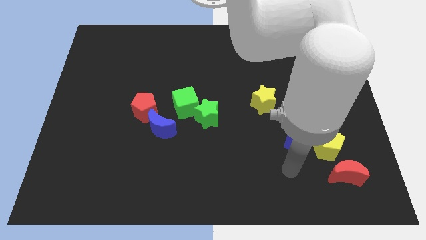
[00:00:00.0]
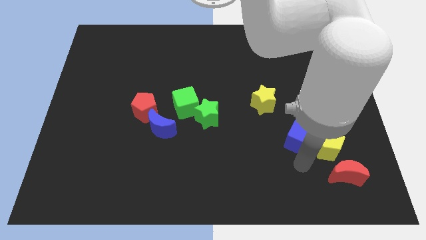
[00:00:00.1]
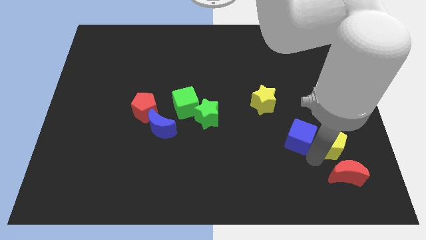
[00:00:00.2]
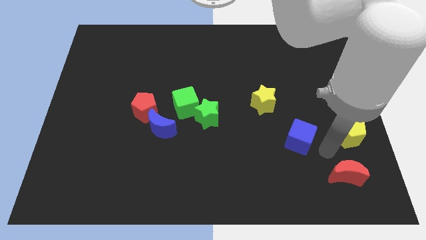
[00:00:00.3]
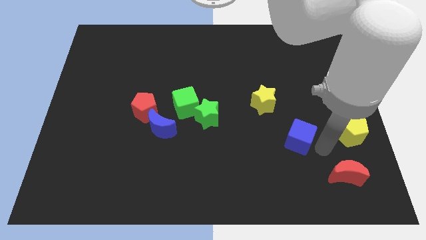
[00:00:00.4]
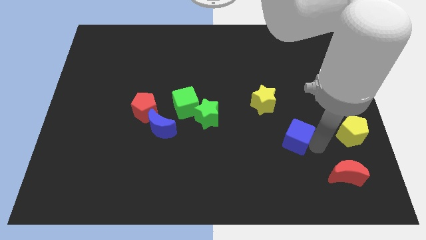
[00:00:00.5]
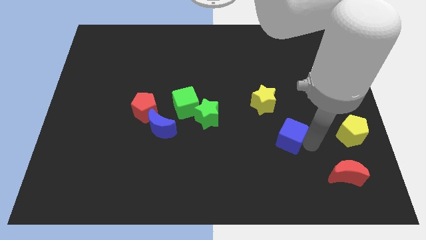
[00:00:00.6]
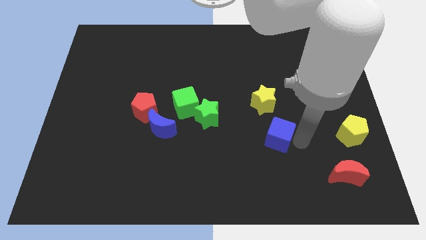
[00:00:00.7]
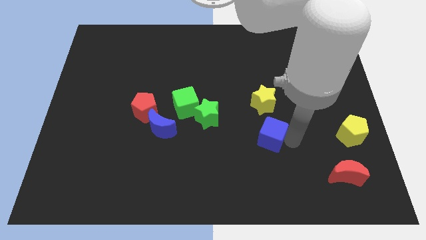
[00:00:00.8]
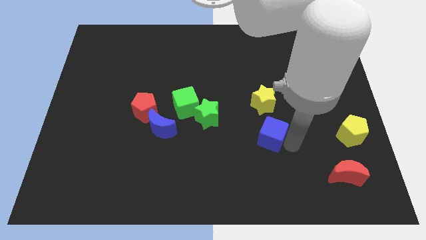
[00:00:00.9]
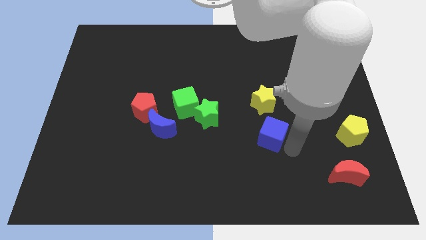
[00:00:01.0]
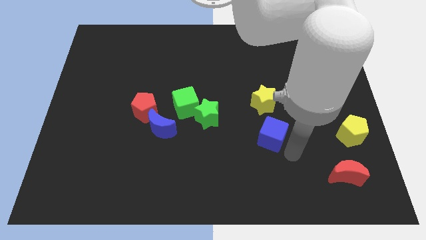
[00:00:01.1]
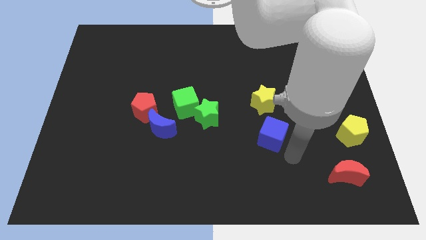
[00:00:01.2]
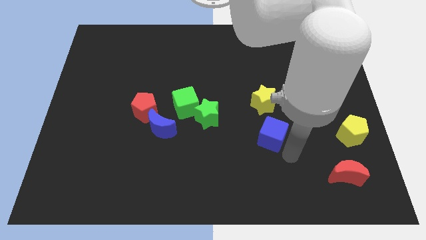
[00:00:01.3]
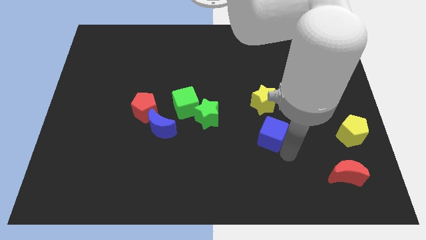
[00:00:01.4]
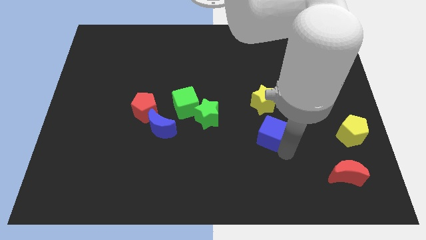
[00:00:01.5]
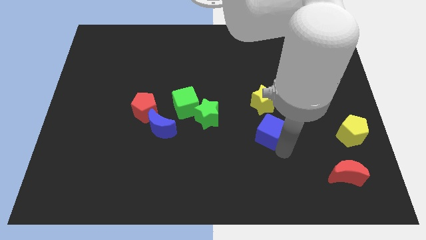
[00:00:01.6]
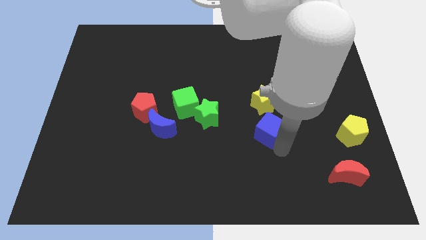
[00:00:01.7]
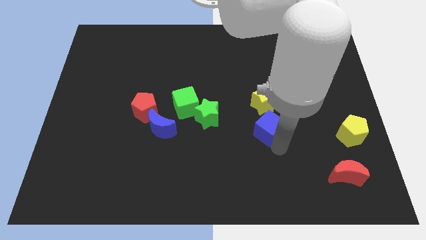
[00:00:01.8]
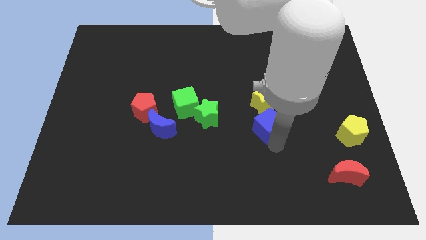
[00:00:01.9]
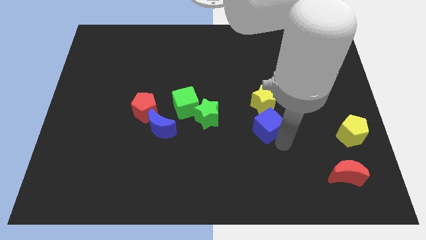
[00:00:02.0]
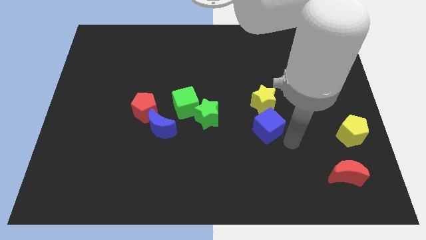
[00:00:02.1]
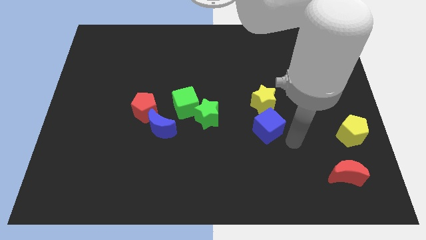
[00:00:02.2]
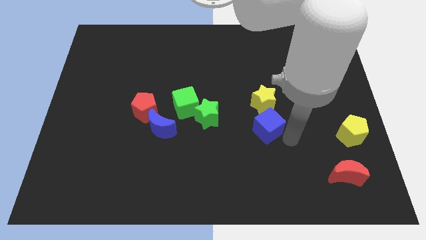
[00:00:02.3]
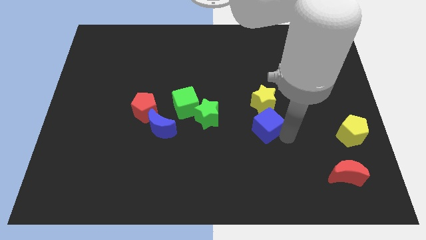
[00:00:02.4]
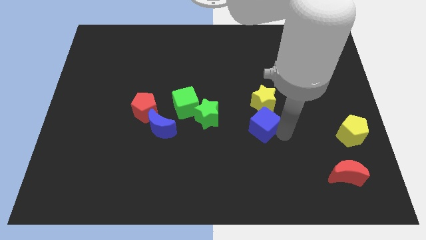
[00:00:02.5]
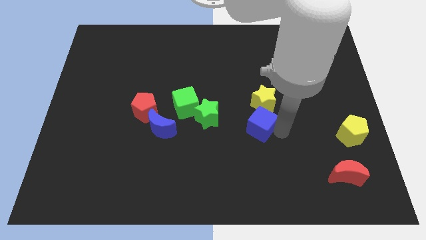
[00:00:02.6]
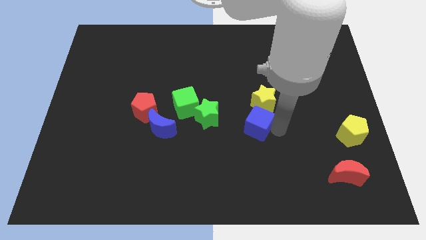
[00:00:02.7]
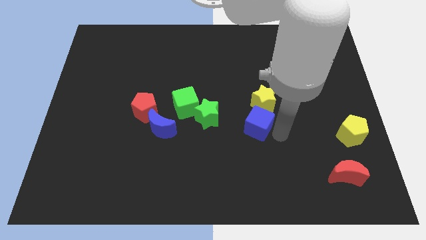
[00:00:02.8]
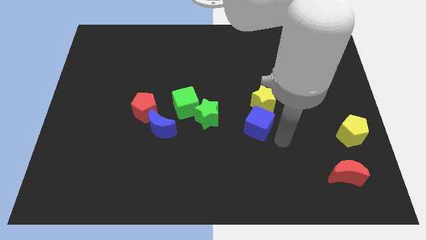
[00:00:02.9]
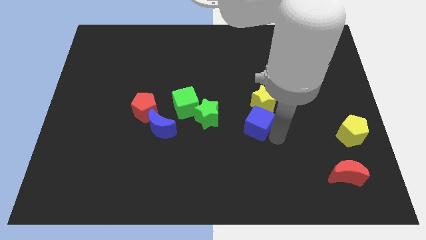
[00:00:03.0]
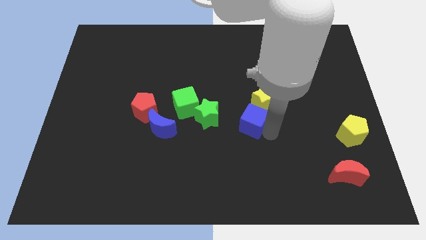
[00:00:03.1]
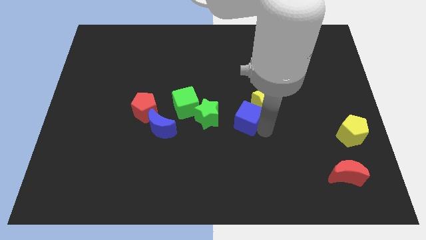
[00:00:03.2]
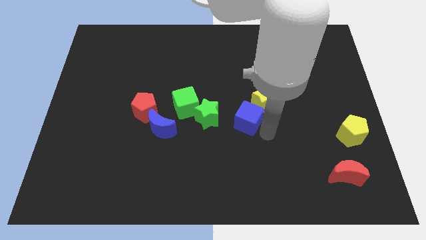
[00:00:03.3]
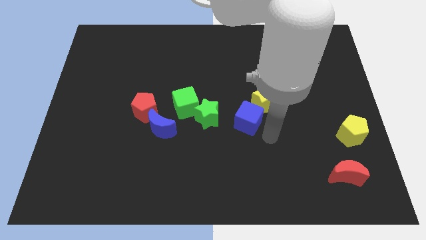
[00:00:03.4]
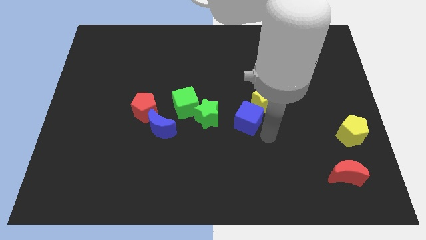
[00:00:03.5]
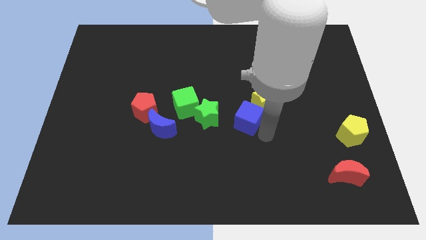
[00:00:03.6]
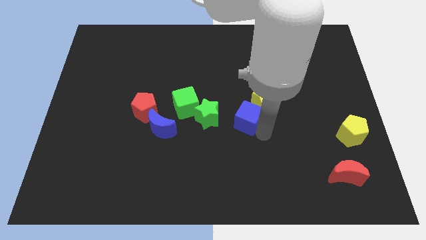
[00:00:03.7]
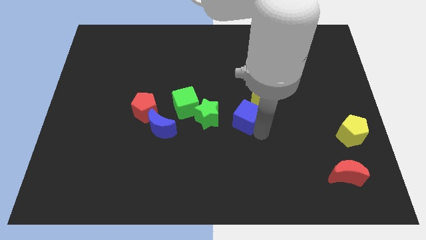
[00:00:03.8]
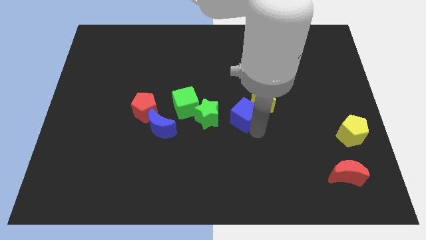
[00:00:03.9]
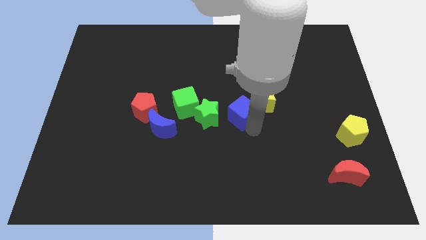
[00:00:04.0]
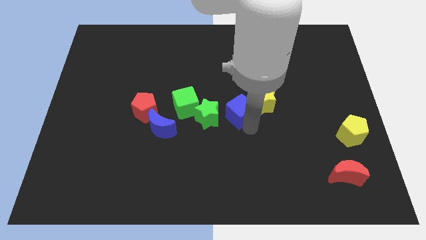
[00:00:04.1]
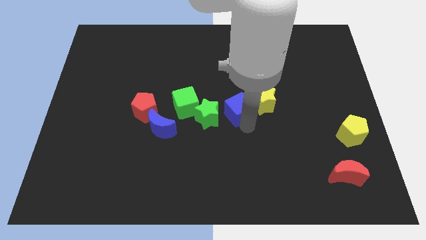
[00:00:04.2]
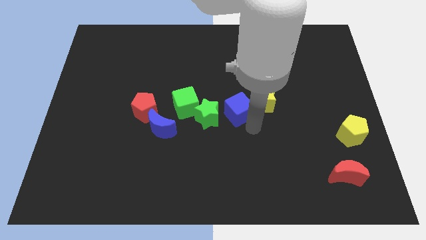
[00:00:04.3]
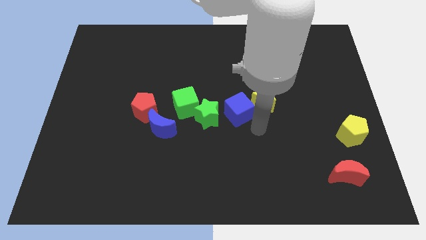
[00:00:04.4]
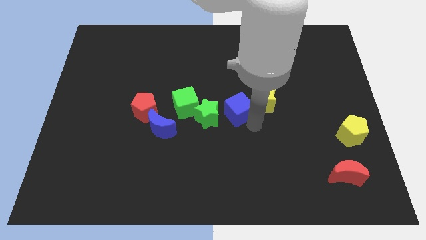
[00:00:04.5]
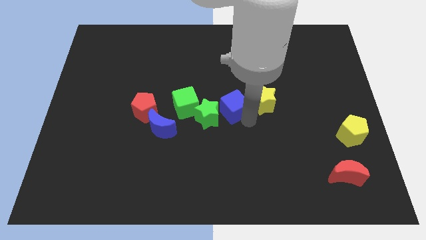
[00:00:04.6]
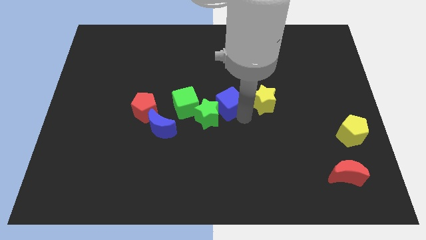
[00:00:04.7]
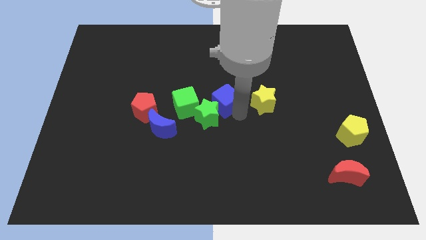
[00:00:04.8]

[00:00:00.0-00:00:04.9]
slide the blue cube to the top side of the green star

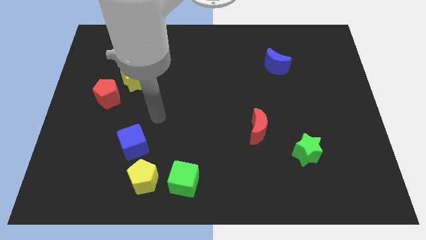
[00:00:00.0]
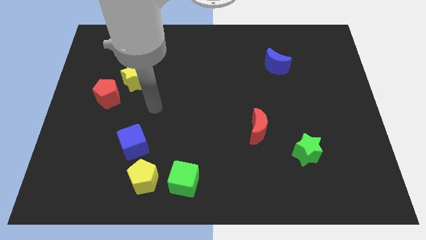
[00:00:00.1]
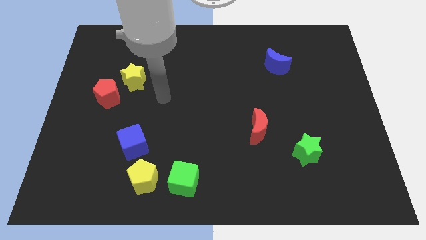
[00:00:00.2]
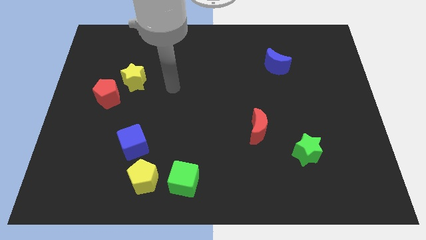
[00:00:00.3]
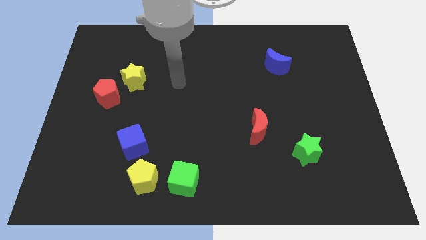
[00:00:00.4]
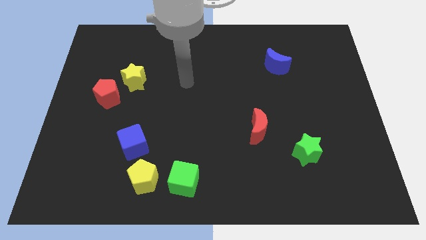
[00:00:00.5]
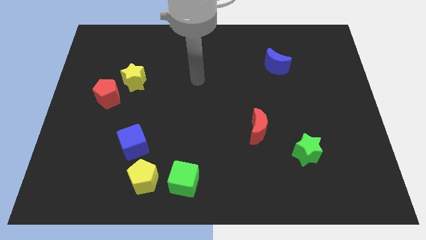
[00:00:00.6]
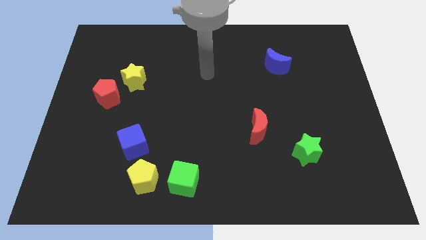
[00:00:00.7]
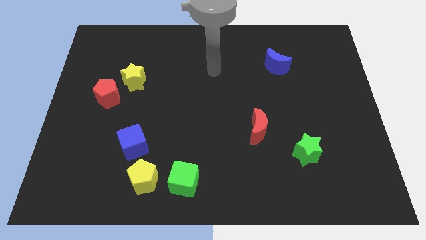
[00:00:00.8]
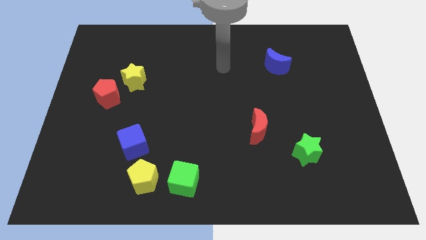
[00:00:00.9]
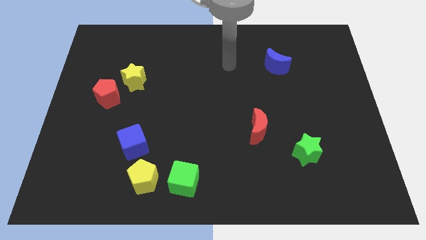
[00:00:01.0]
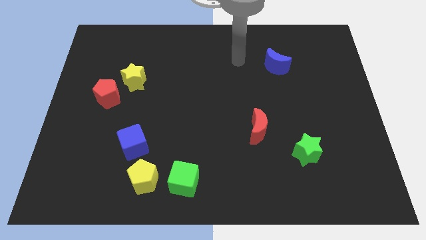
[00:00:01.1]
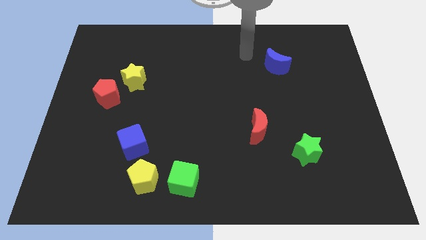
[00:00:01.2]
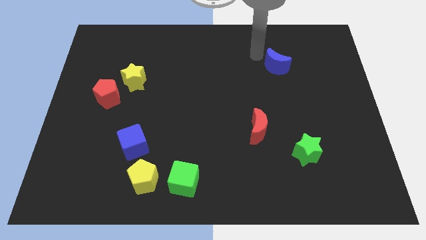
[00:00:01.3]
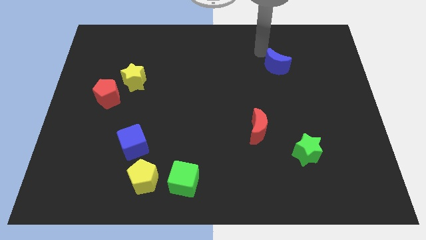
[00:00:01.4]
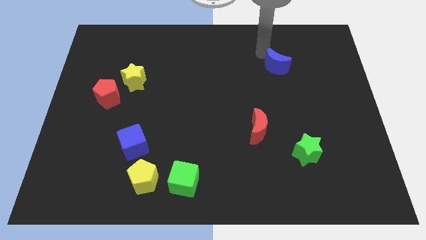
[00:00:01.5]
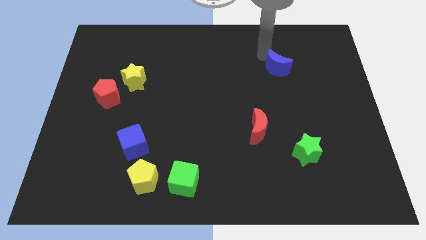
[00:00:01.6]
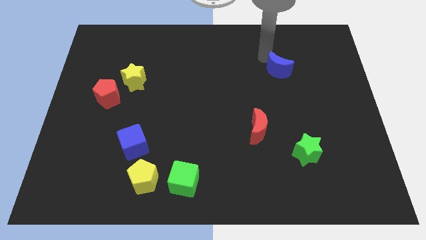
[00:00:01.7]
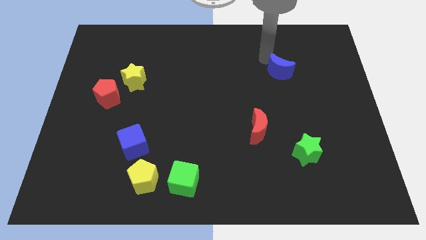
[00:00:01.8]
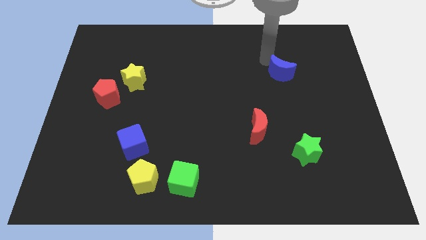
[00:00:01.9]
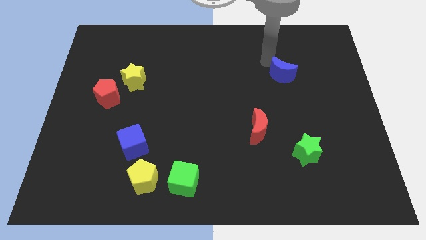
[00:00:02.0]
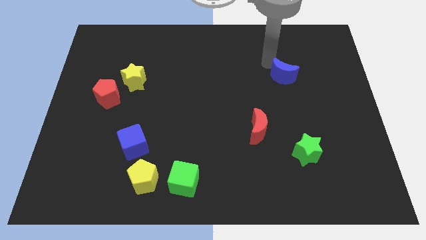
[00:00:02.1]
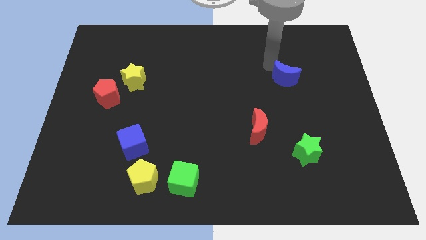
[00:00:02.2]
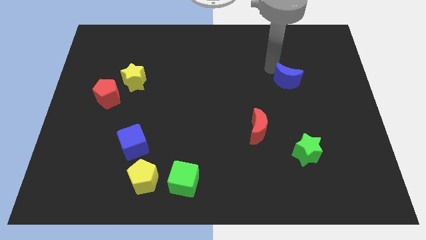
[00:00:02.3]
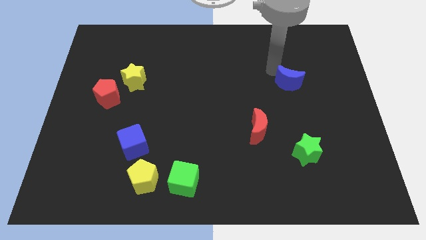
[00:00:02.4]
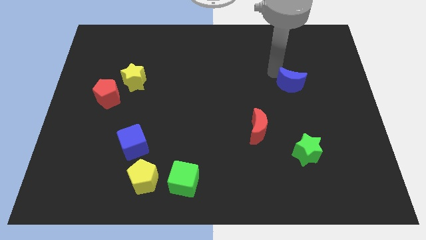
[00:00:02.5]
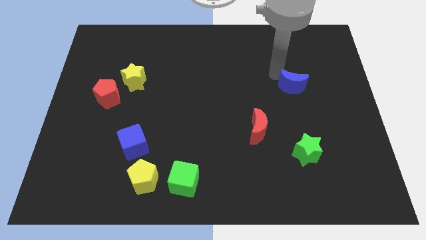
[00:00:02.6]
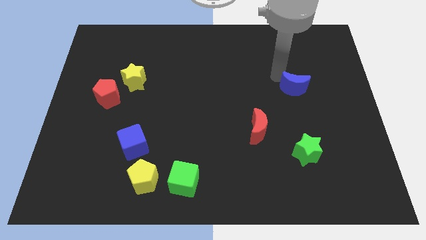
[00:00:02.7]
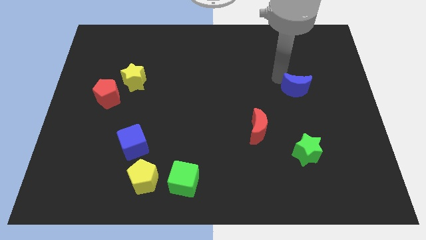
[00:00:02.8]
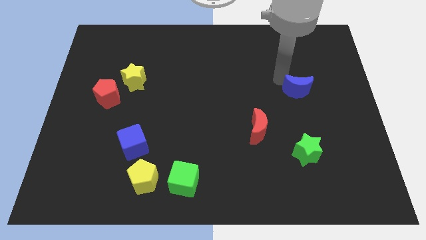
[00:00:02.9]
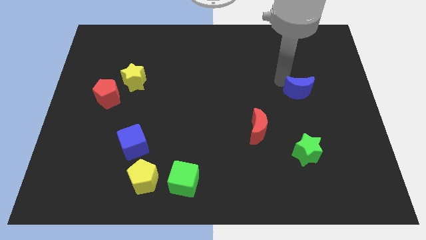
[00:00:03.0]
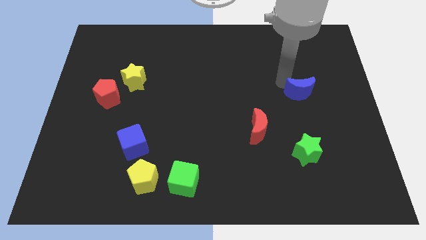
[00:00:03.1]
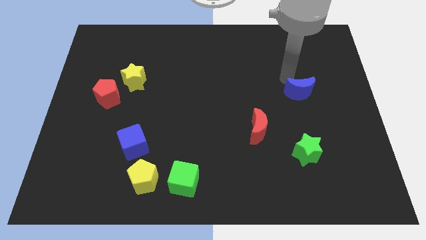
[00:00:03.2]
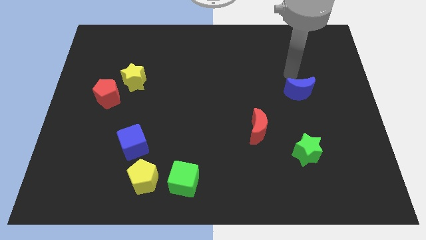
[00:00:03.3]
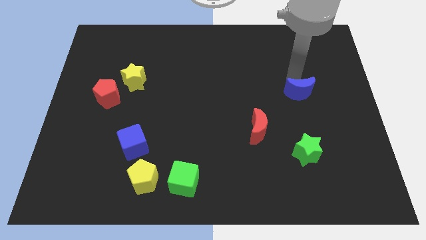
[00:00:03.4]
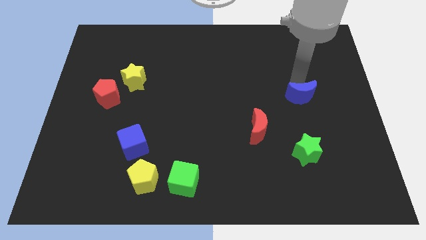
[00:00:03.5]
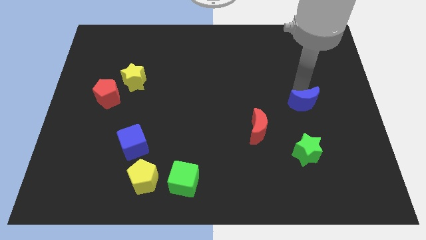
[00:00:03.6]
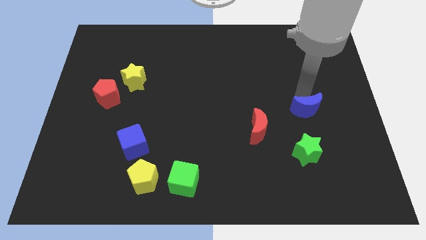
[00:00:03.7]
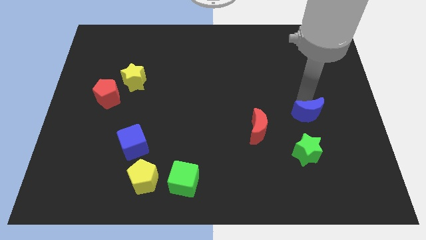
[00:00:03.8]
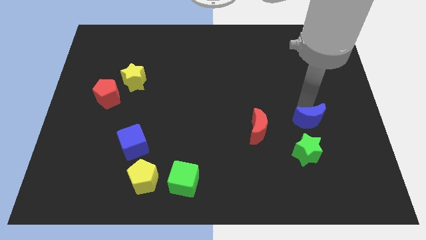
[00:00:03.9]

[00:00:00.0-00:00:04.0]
slide the blue moon to the top right side of the green star
